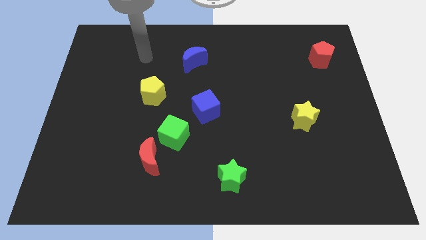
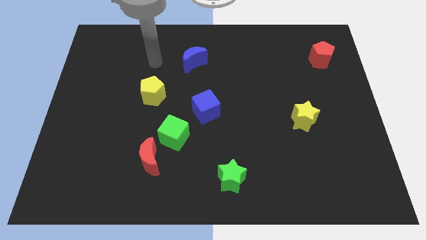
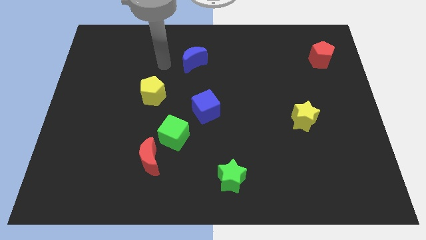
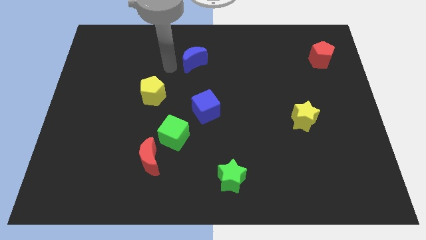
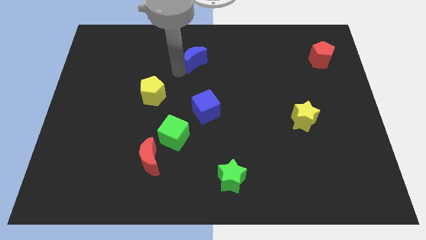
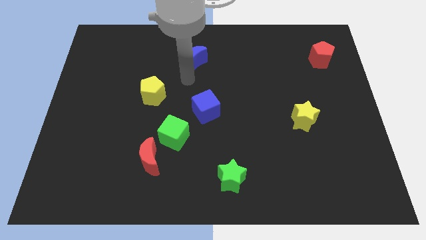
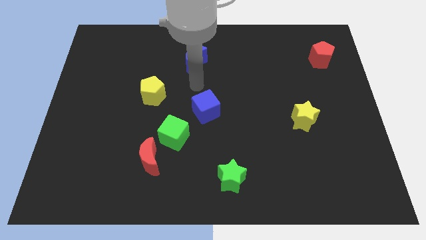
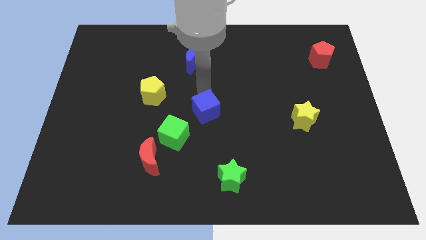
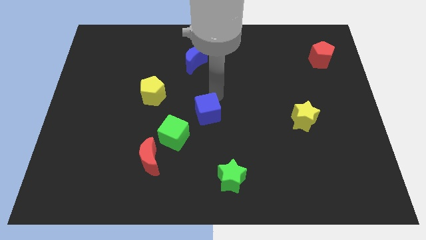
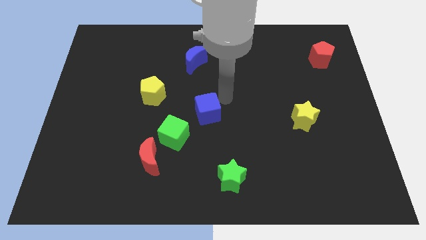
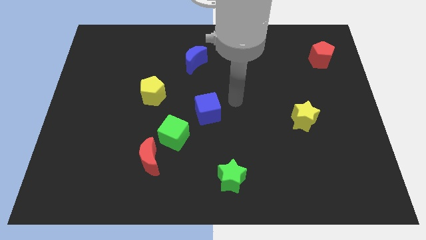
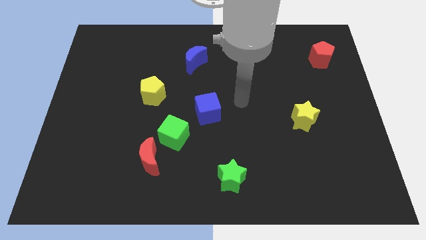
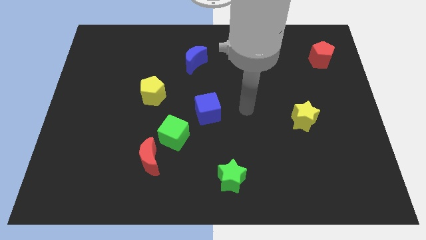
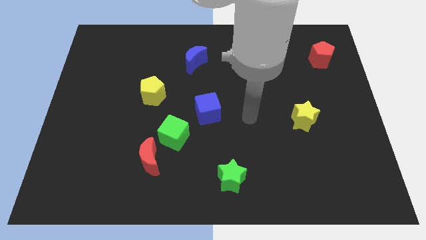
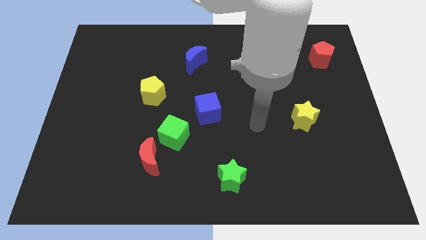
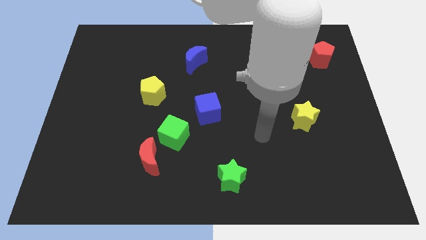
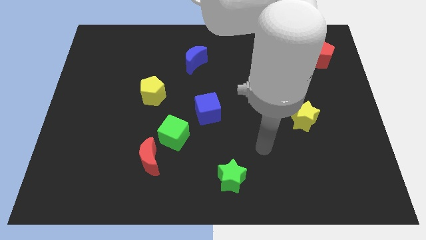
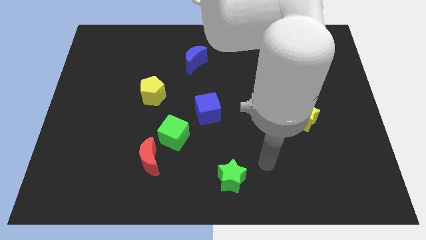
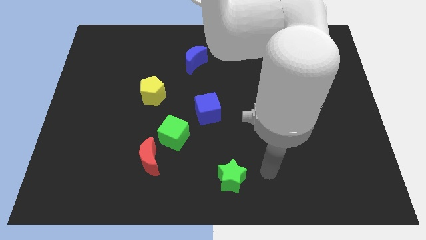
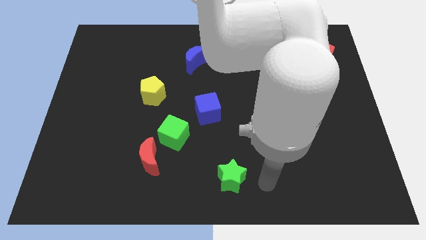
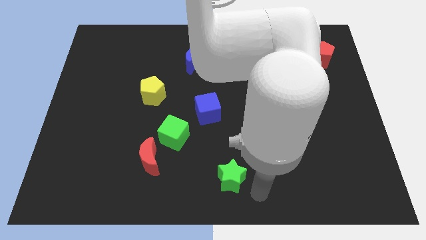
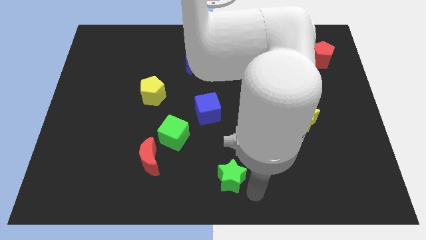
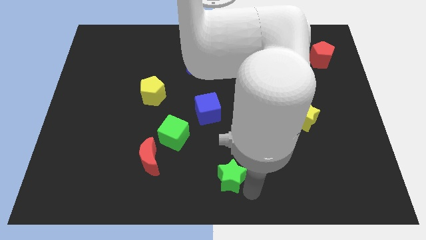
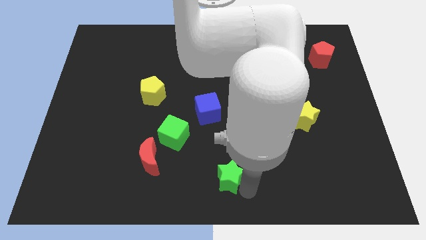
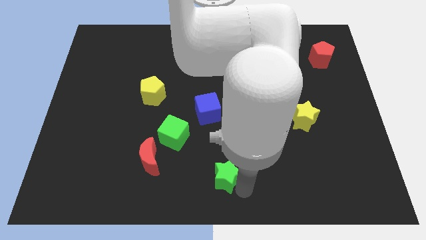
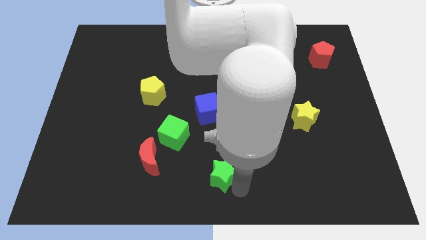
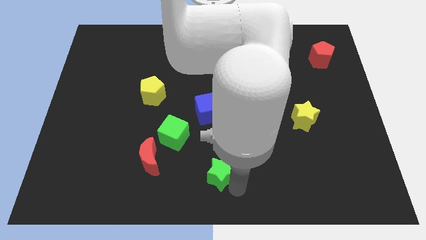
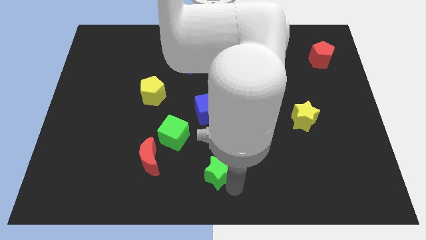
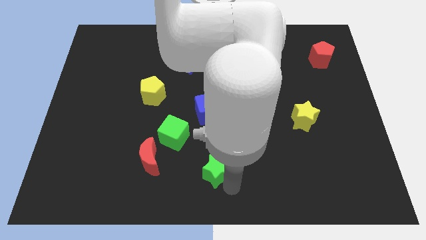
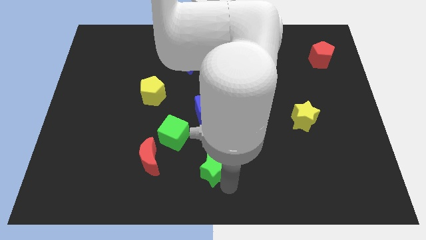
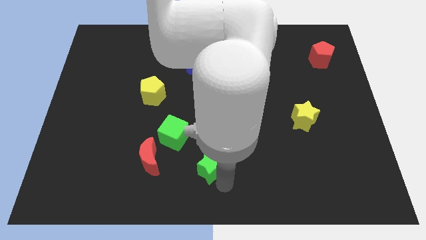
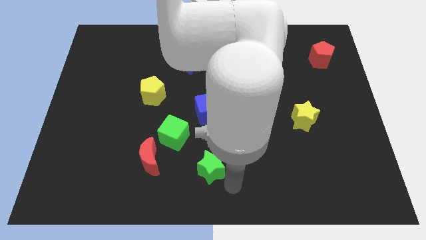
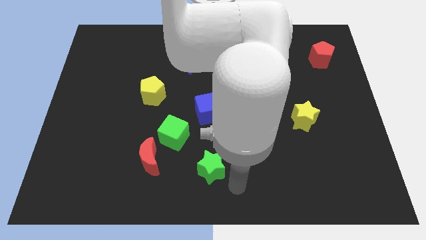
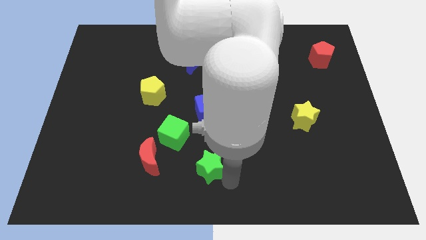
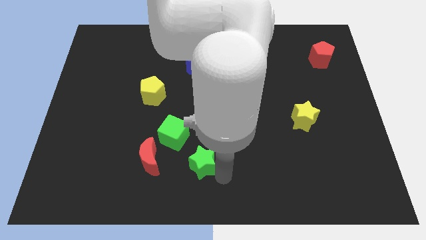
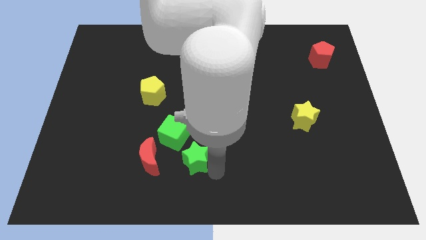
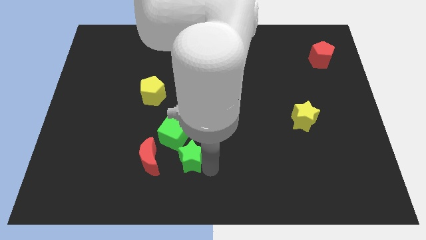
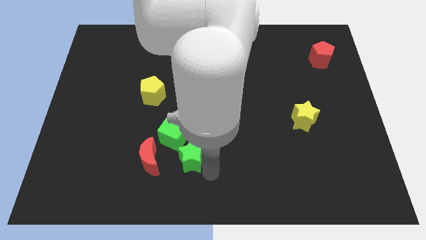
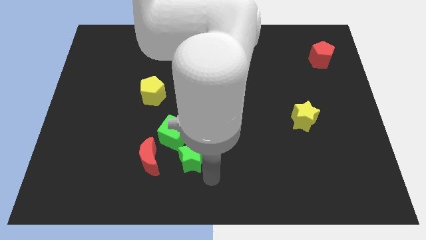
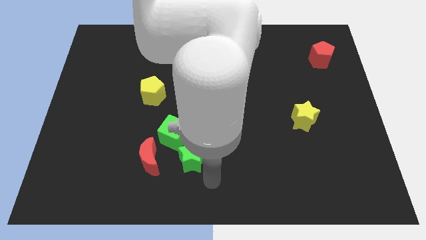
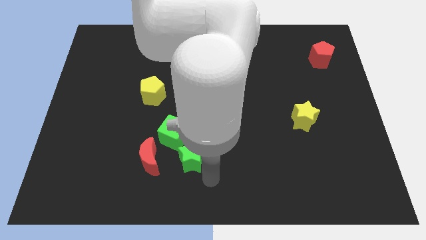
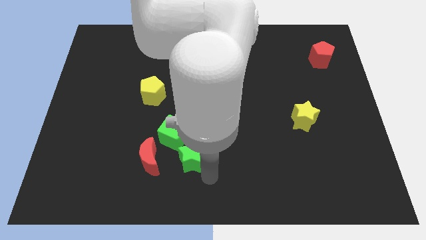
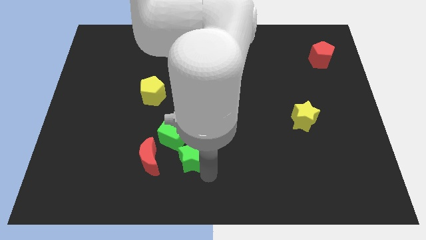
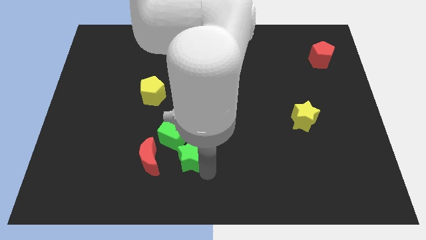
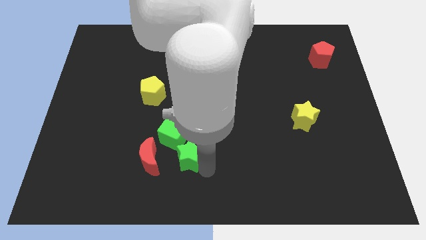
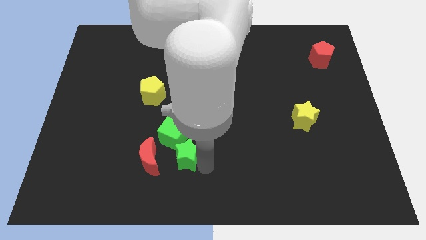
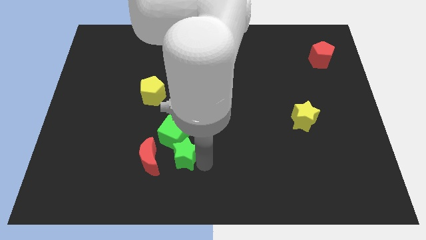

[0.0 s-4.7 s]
move the green star next to the green cube

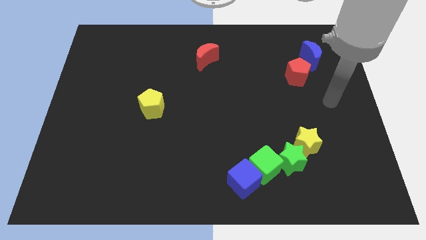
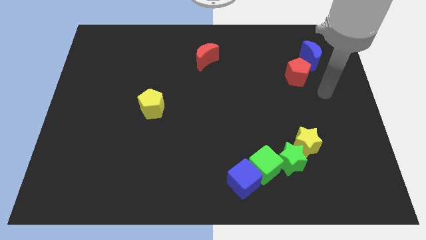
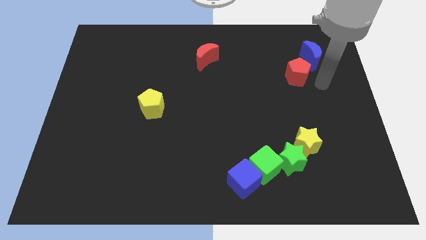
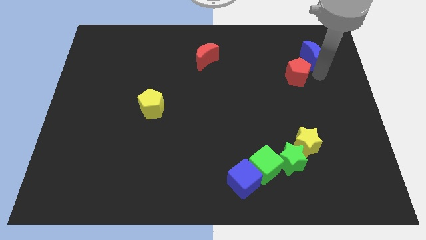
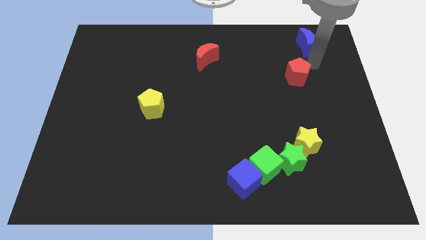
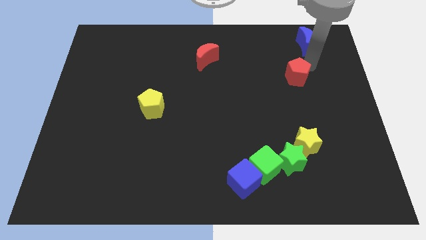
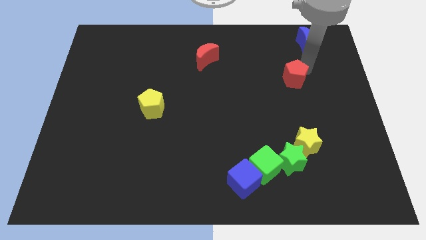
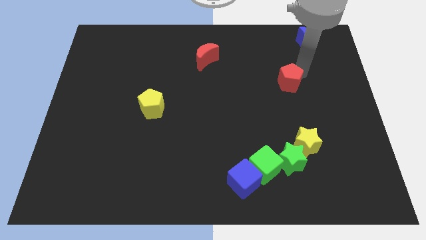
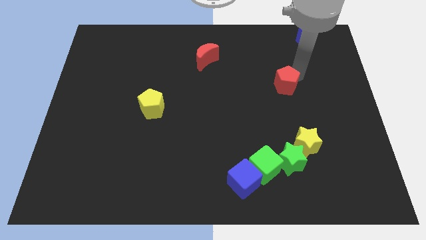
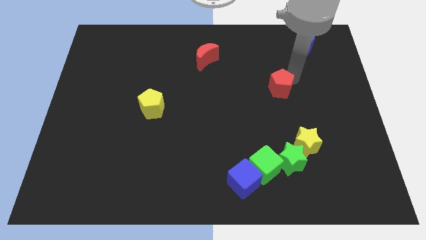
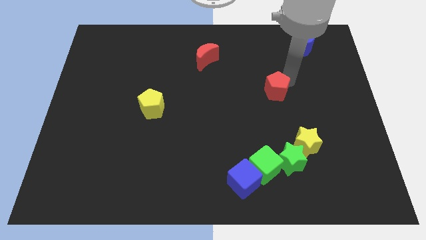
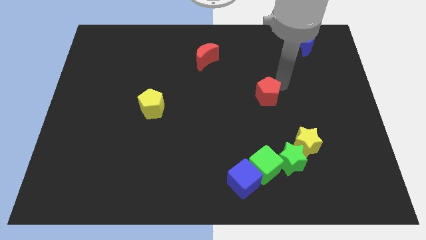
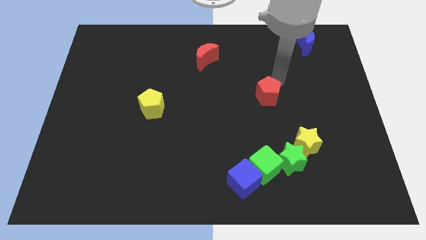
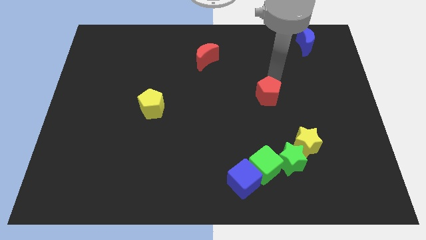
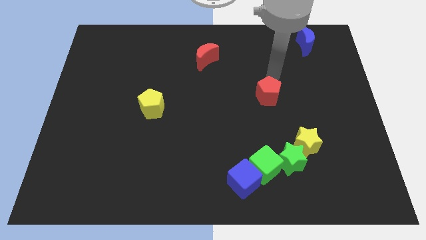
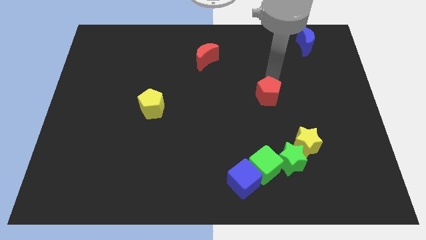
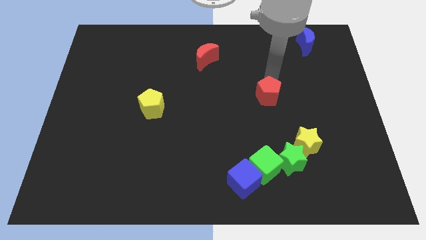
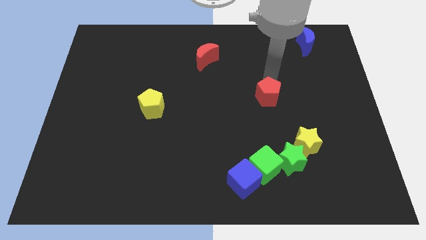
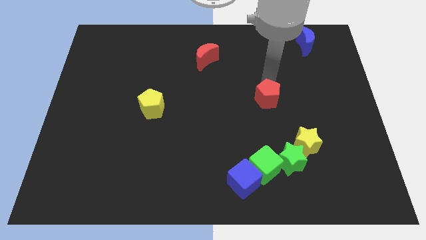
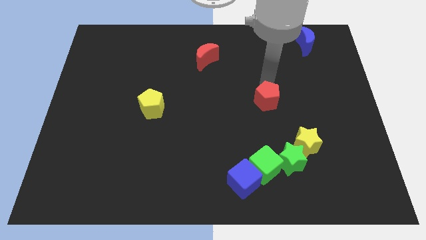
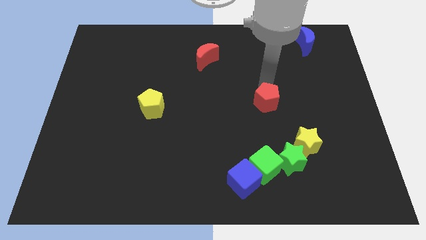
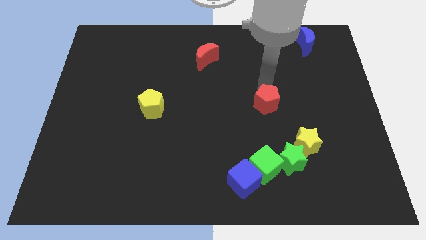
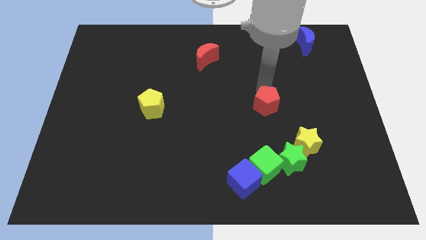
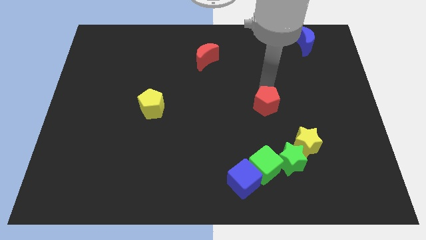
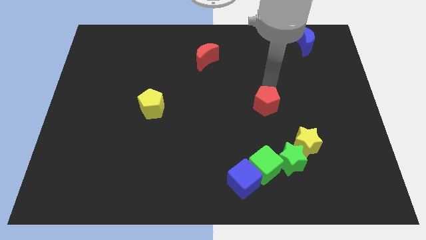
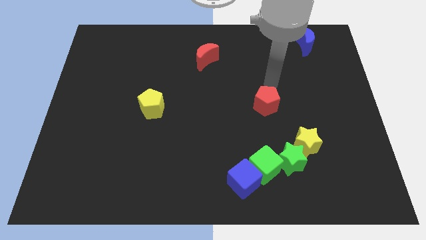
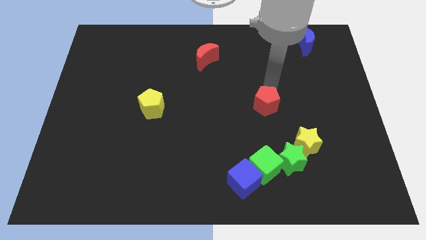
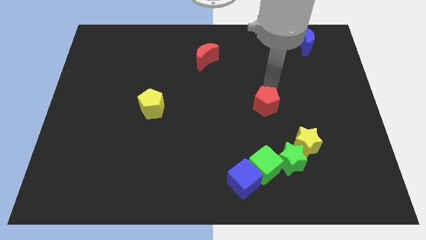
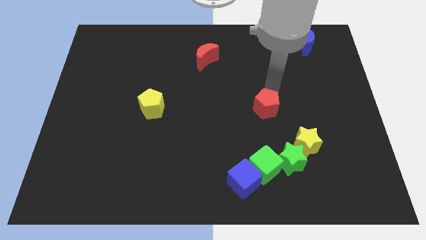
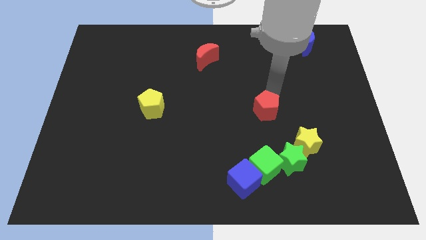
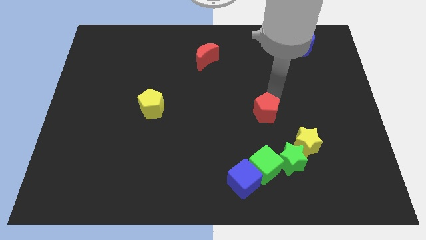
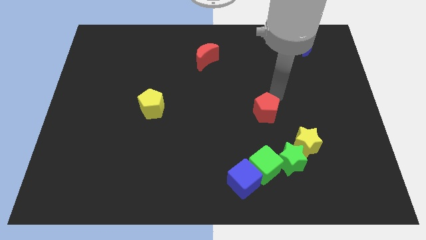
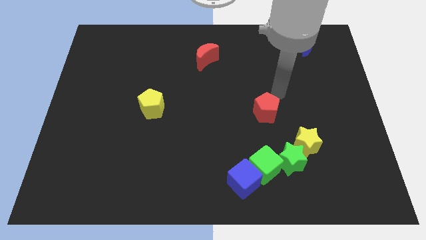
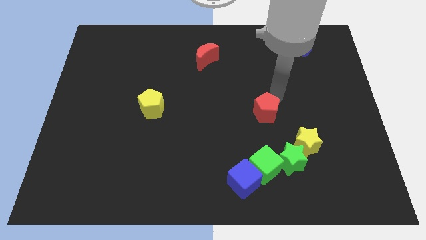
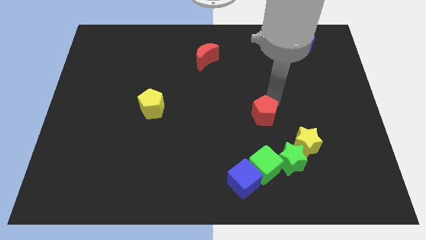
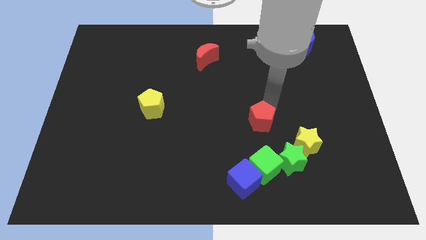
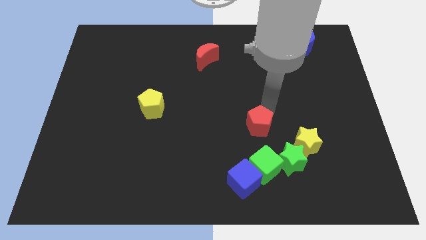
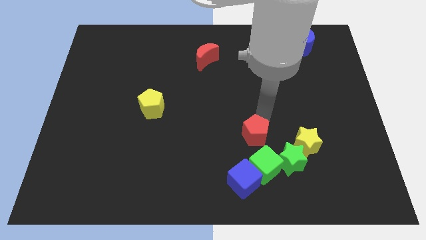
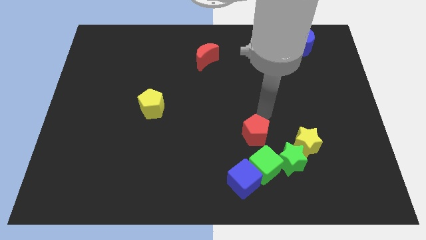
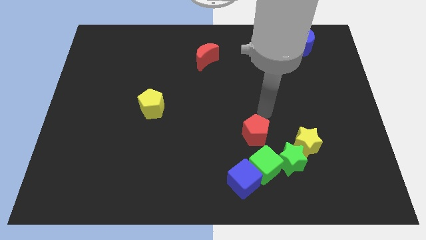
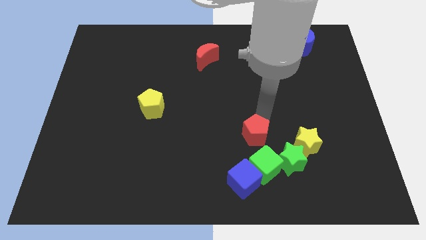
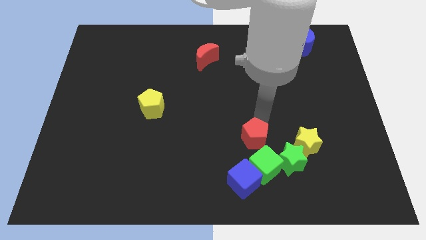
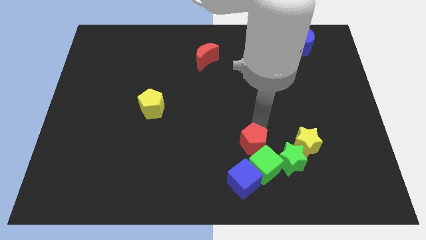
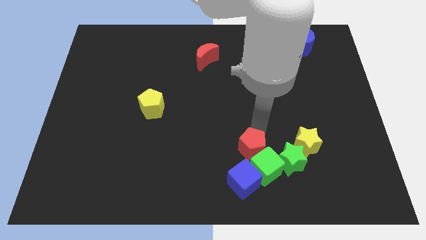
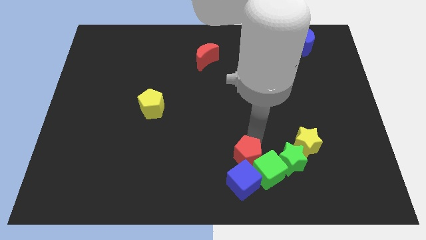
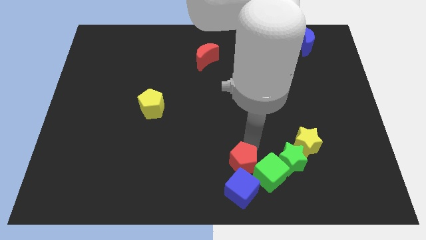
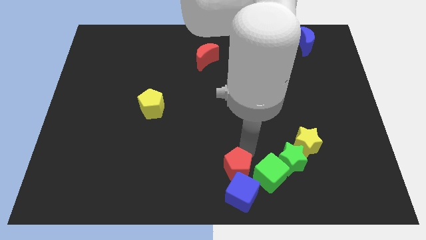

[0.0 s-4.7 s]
move the red pentagon towards the blue cube
